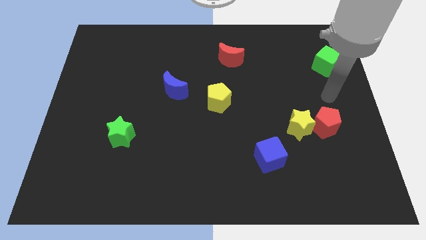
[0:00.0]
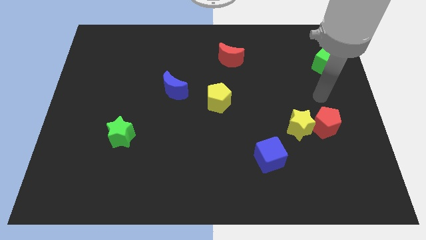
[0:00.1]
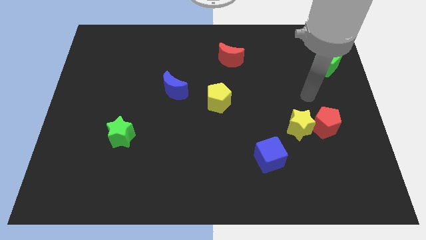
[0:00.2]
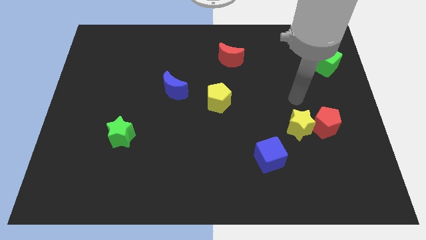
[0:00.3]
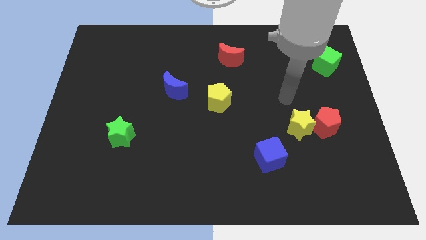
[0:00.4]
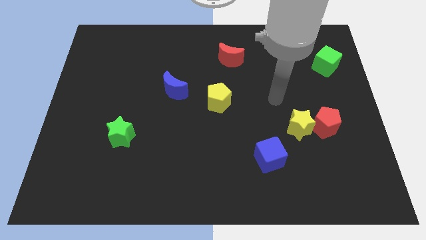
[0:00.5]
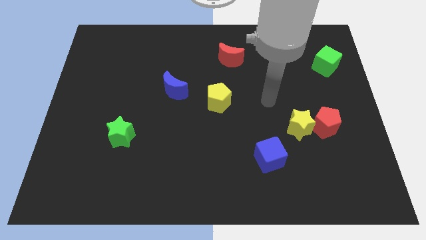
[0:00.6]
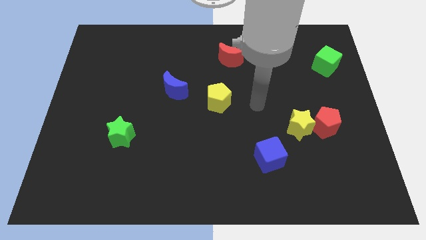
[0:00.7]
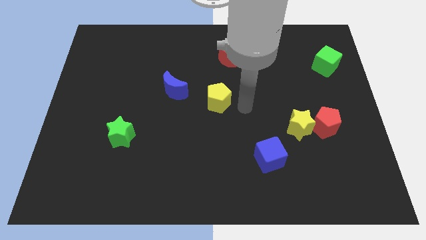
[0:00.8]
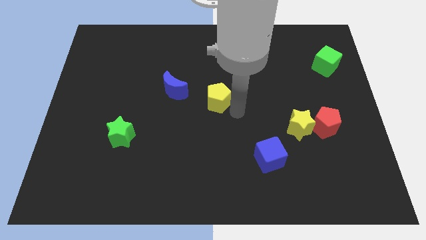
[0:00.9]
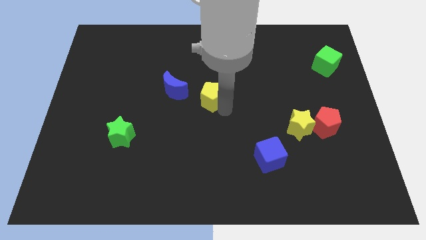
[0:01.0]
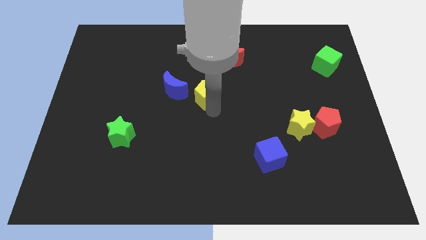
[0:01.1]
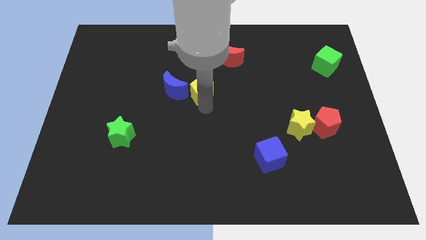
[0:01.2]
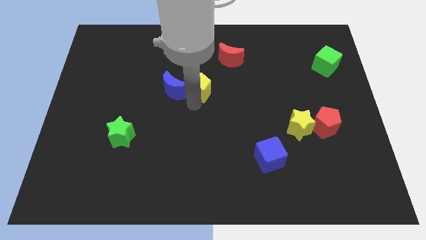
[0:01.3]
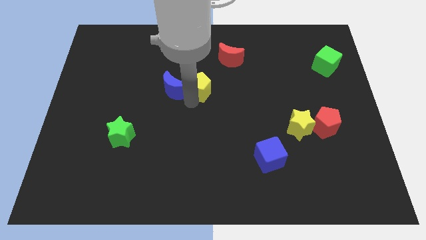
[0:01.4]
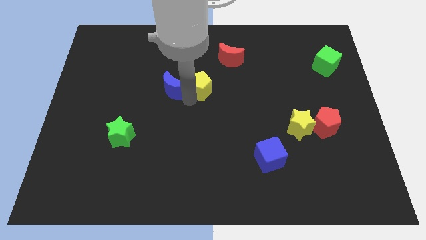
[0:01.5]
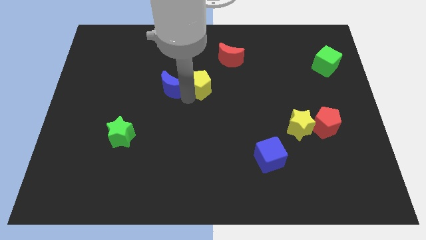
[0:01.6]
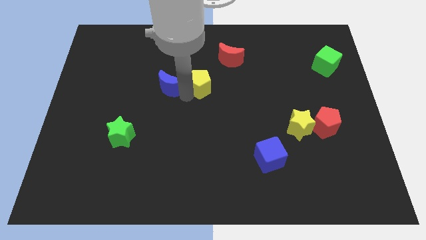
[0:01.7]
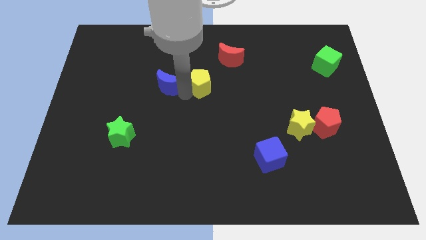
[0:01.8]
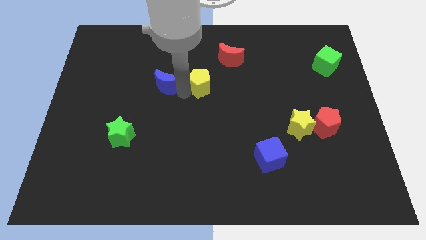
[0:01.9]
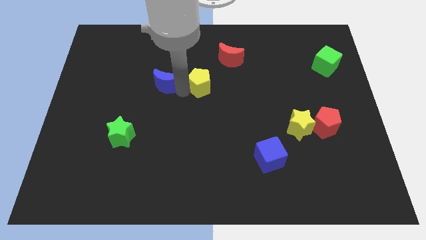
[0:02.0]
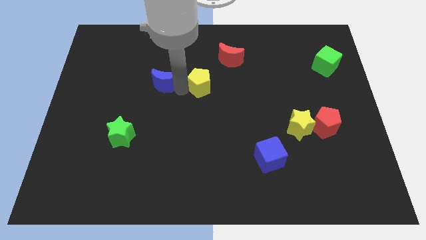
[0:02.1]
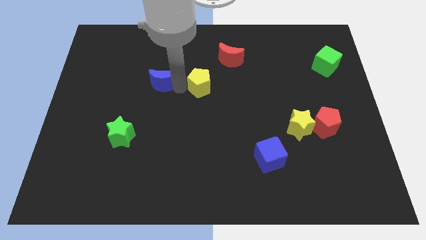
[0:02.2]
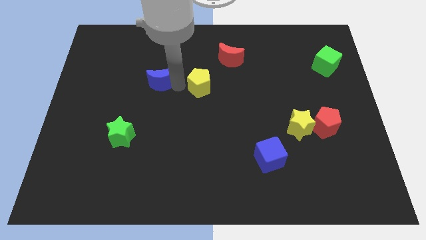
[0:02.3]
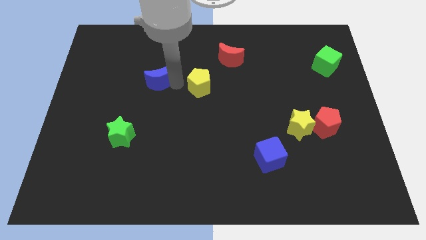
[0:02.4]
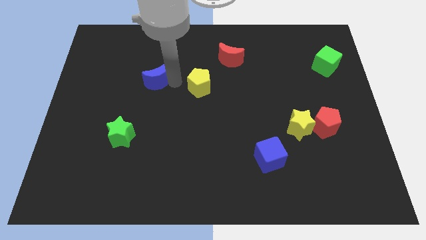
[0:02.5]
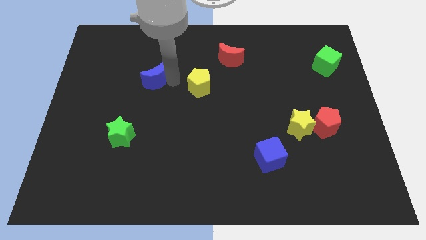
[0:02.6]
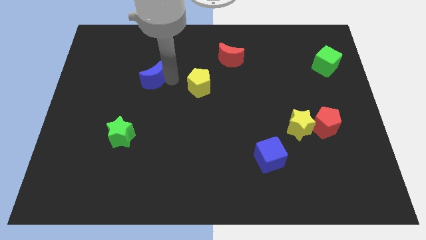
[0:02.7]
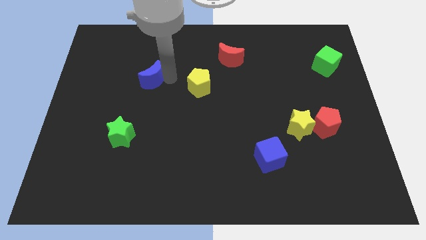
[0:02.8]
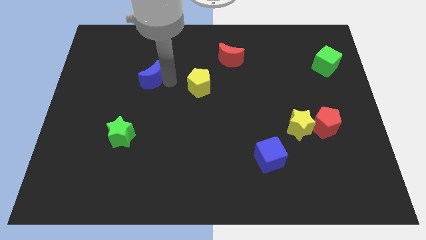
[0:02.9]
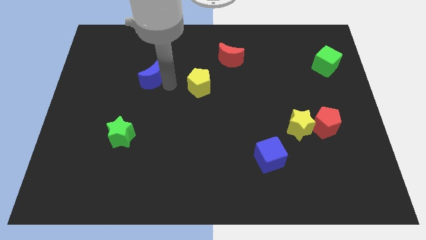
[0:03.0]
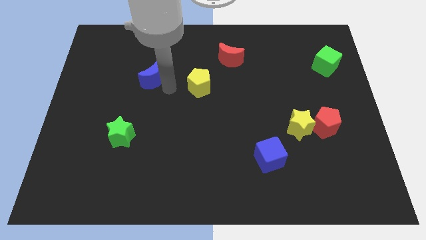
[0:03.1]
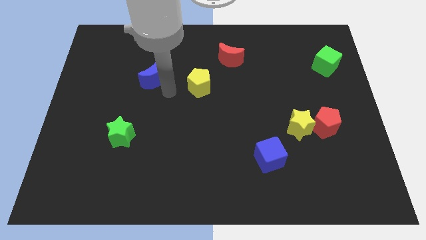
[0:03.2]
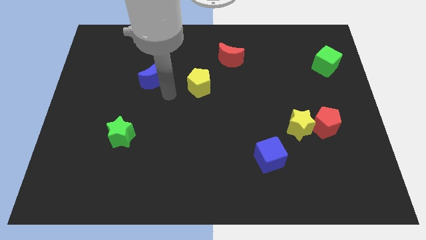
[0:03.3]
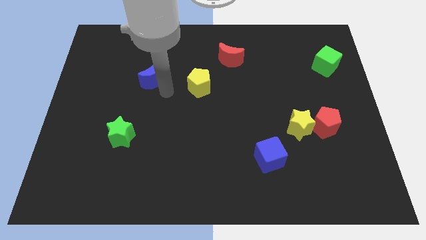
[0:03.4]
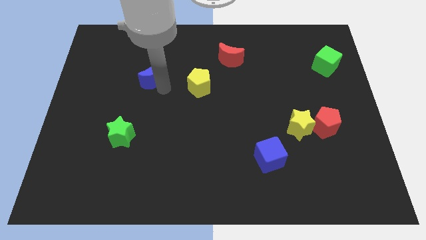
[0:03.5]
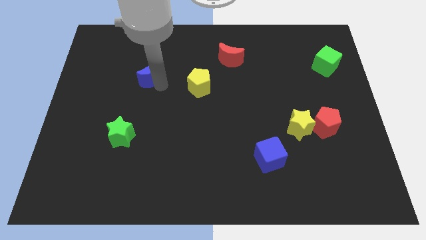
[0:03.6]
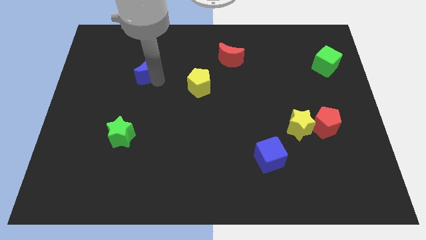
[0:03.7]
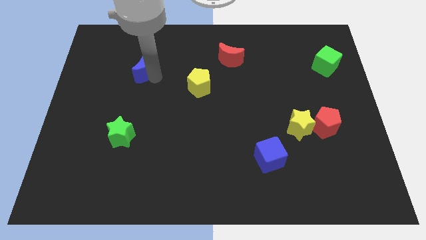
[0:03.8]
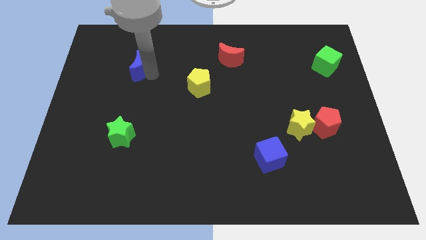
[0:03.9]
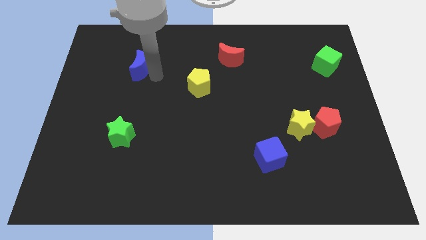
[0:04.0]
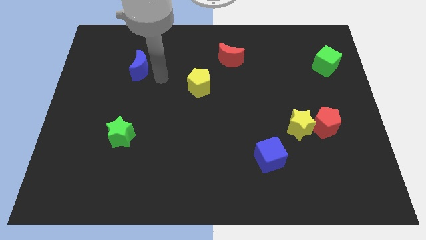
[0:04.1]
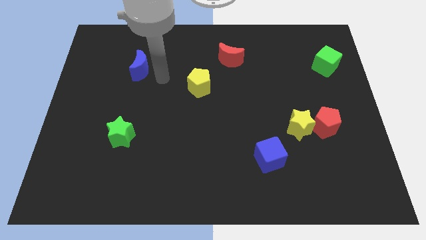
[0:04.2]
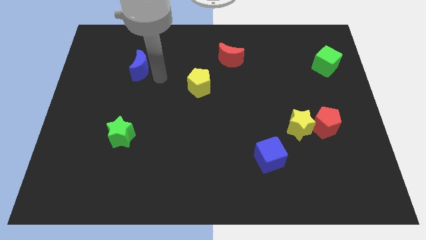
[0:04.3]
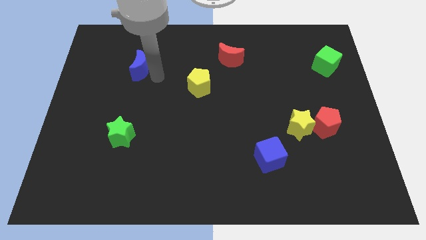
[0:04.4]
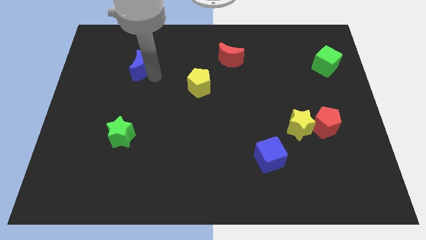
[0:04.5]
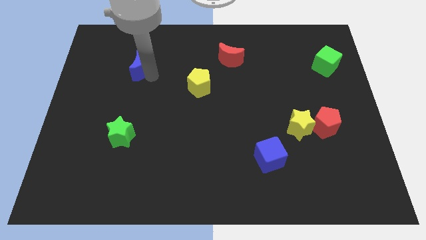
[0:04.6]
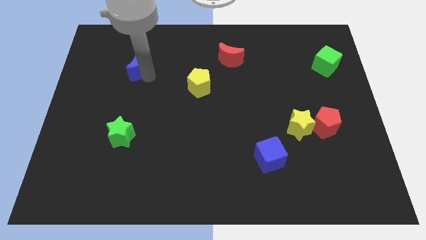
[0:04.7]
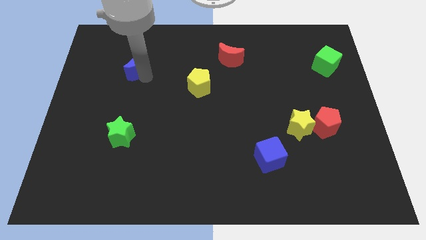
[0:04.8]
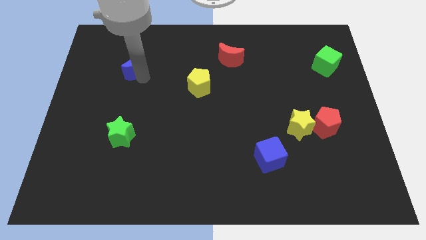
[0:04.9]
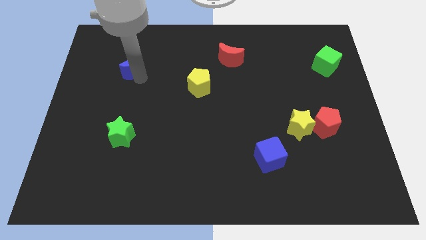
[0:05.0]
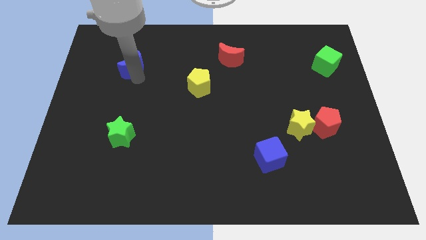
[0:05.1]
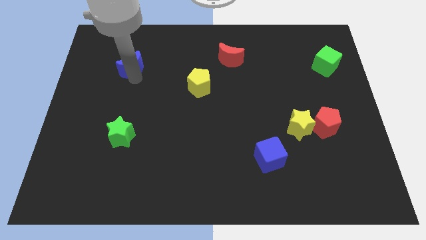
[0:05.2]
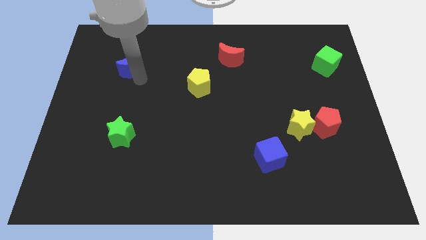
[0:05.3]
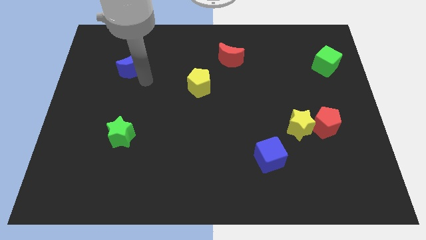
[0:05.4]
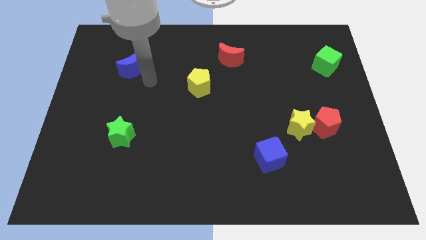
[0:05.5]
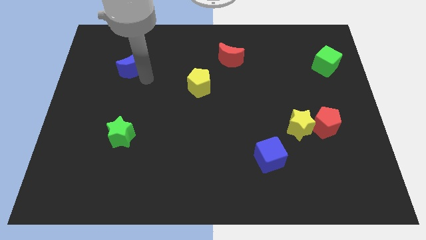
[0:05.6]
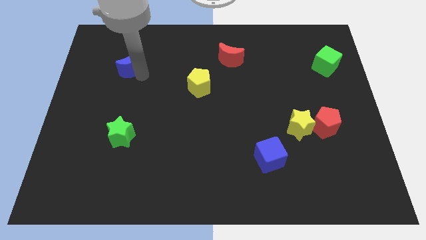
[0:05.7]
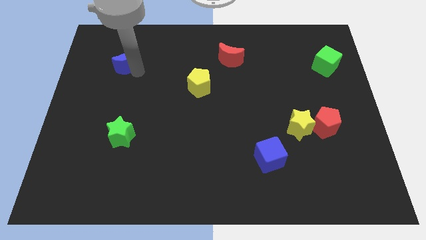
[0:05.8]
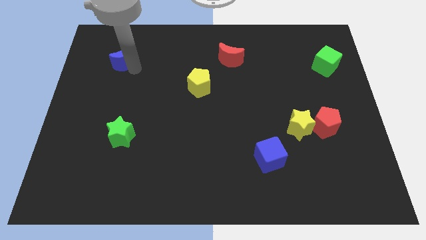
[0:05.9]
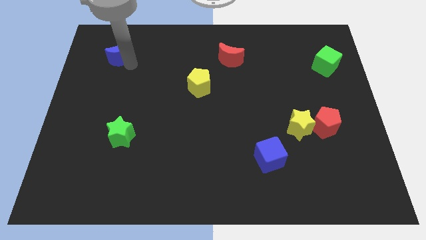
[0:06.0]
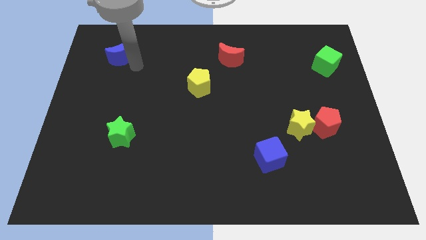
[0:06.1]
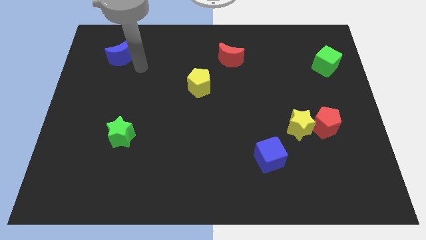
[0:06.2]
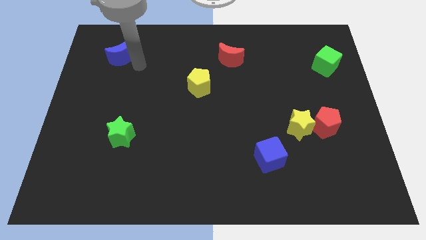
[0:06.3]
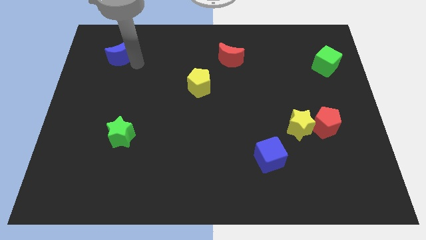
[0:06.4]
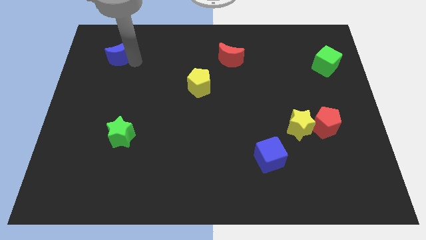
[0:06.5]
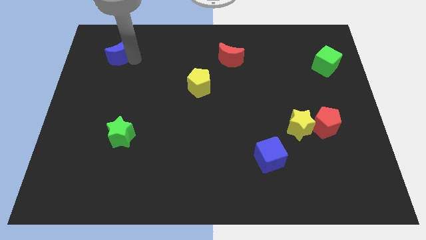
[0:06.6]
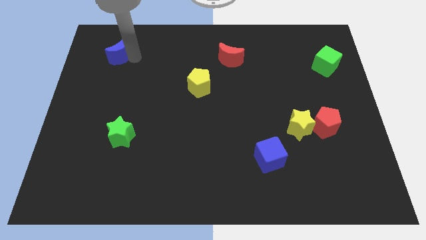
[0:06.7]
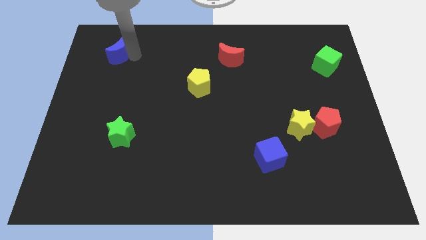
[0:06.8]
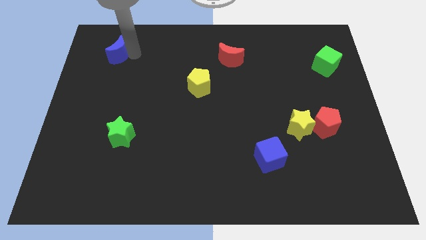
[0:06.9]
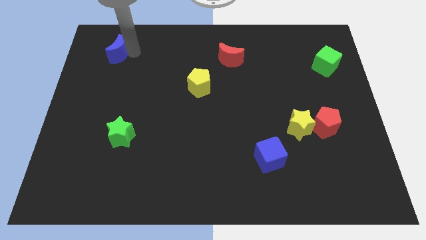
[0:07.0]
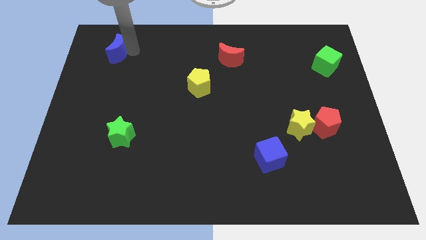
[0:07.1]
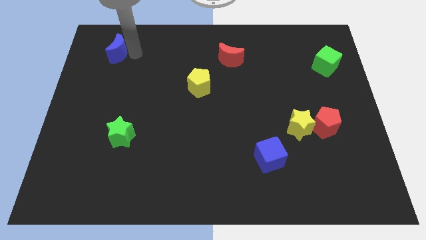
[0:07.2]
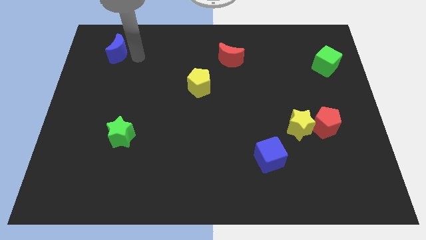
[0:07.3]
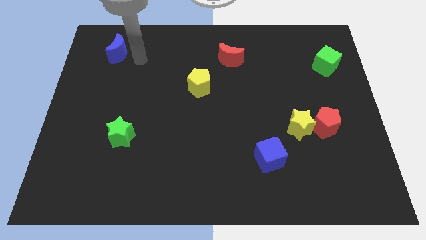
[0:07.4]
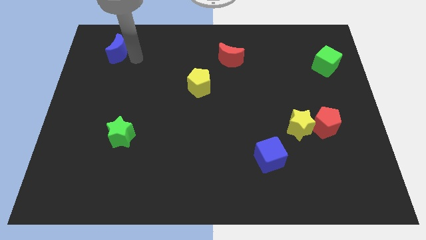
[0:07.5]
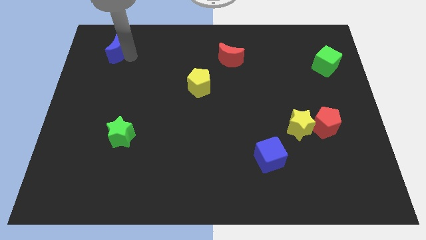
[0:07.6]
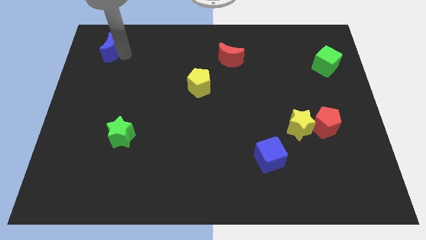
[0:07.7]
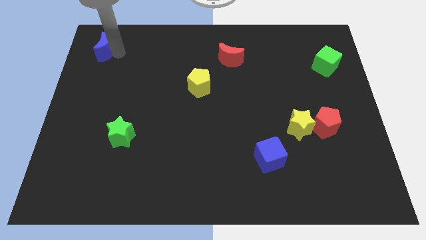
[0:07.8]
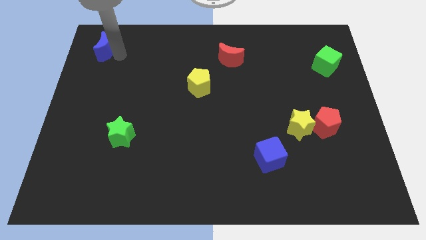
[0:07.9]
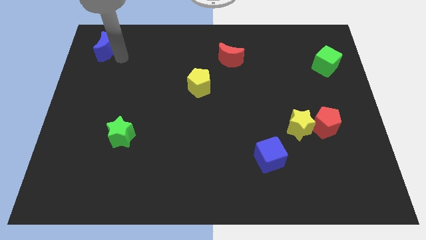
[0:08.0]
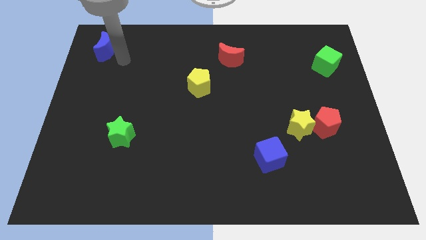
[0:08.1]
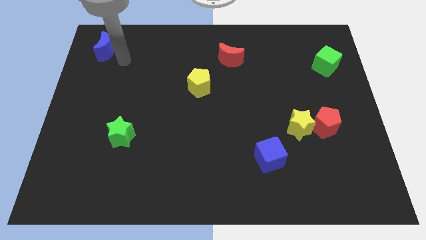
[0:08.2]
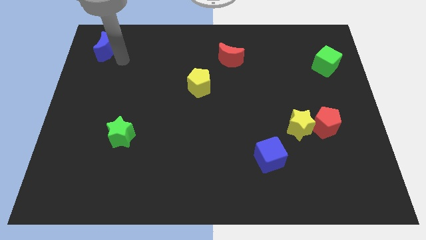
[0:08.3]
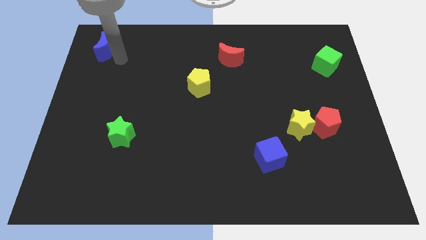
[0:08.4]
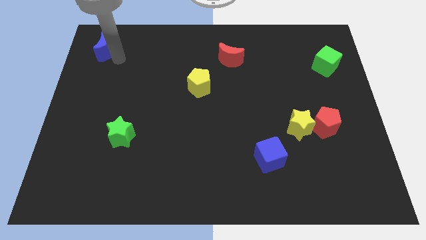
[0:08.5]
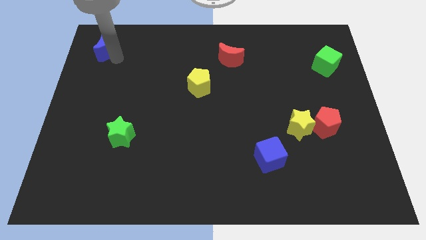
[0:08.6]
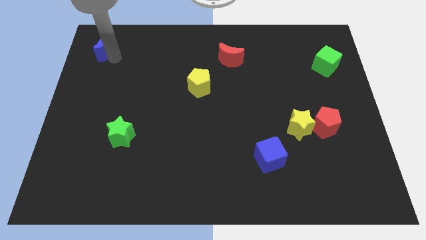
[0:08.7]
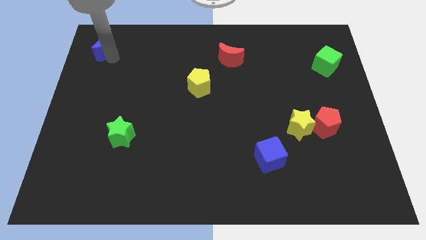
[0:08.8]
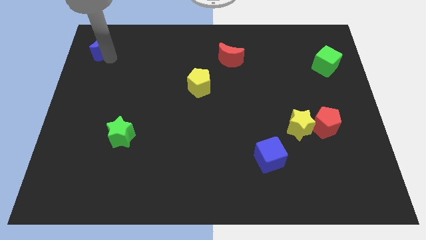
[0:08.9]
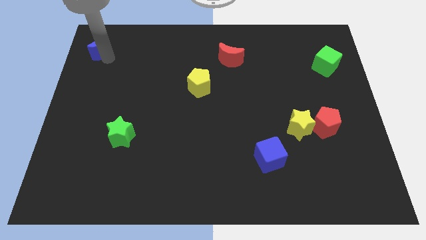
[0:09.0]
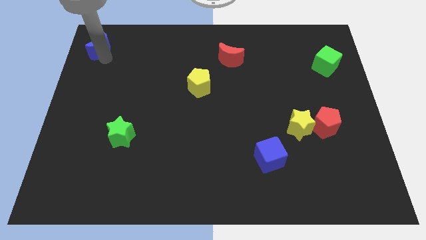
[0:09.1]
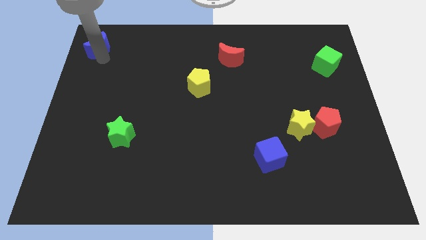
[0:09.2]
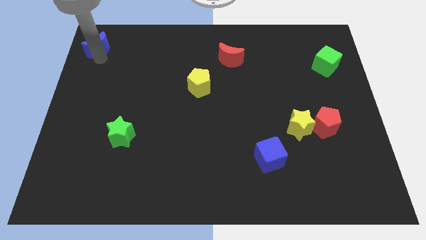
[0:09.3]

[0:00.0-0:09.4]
put the blue moon to the top left
